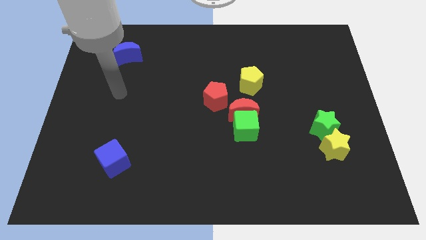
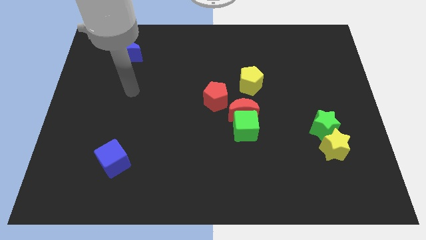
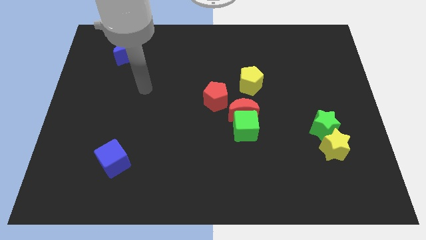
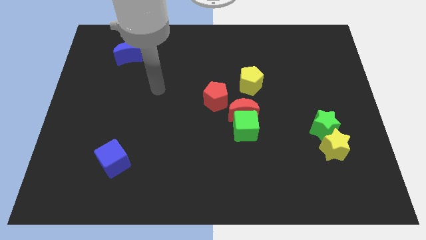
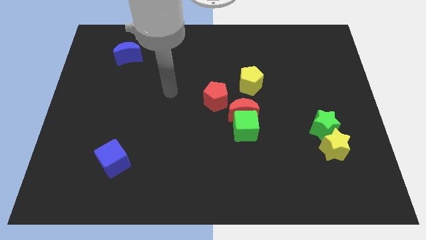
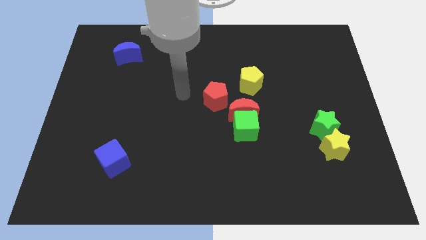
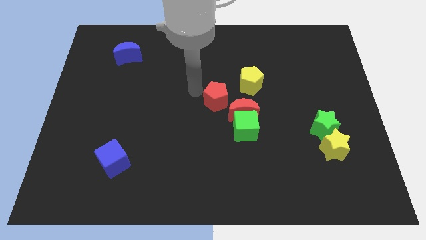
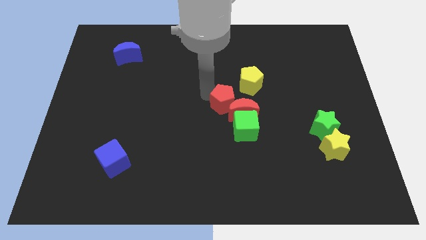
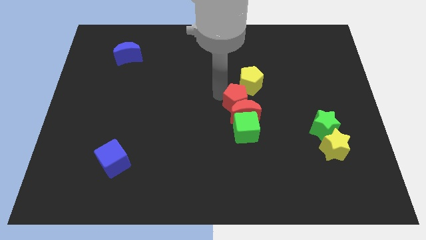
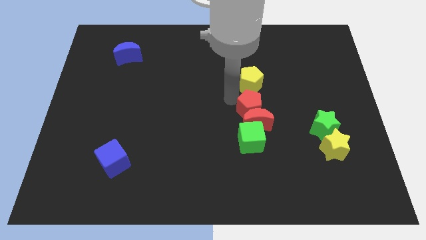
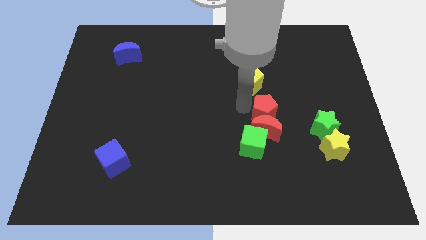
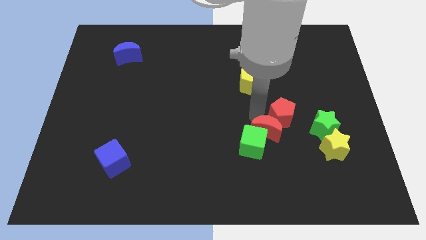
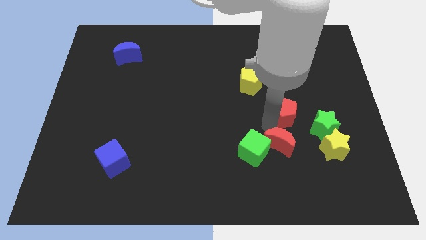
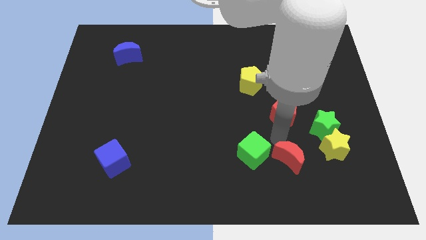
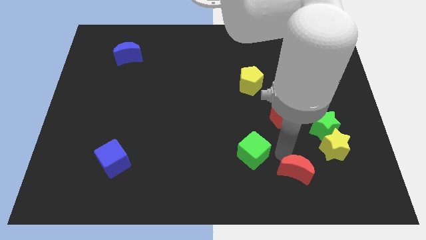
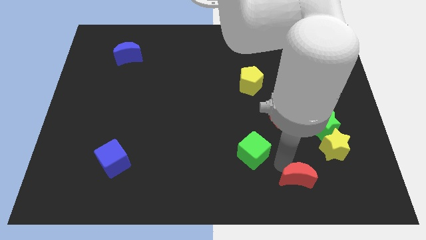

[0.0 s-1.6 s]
separate the green cube from the red moon

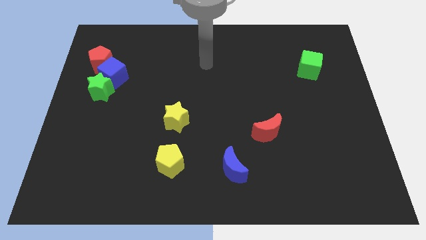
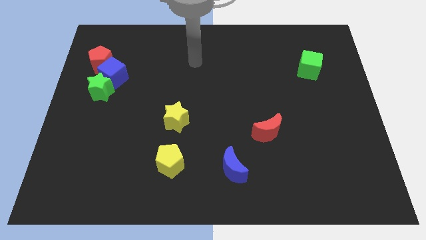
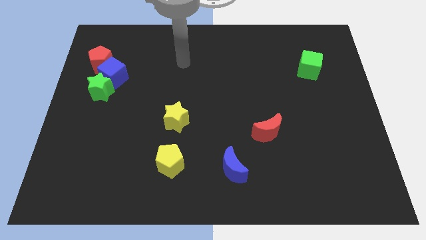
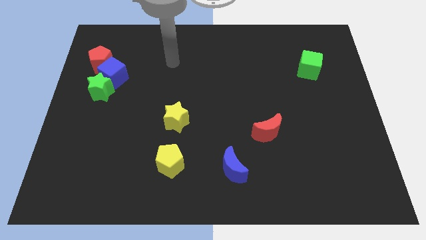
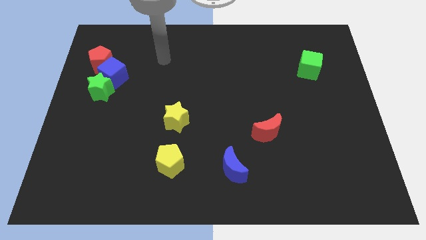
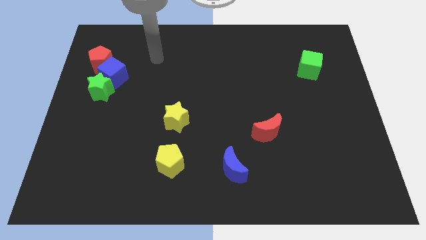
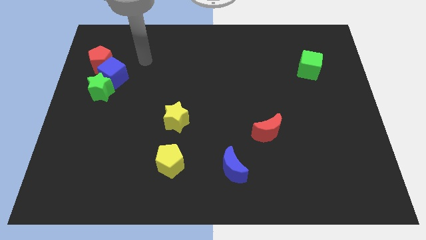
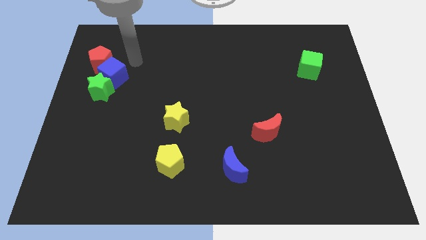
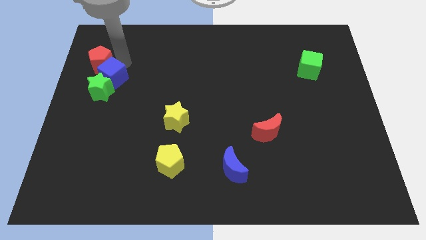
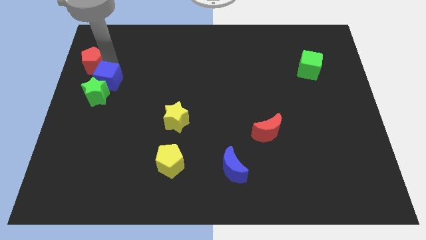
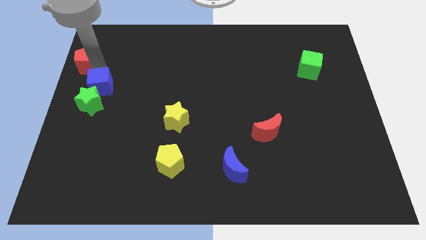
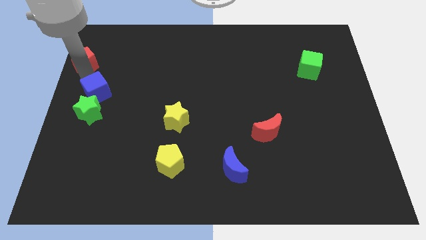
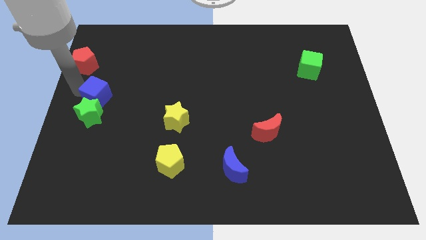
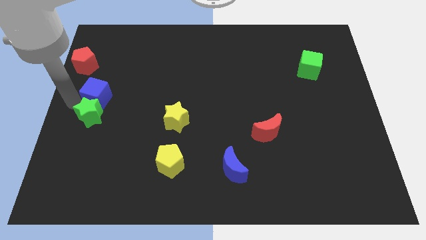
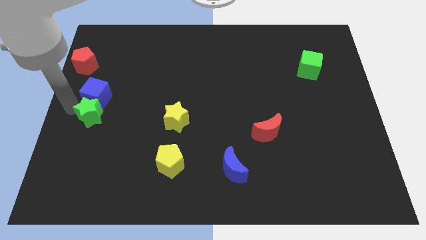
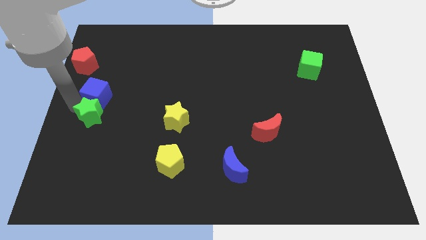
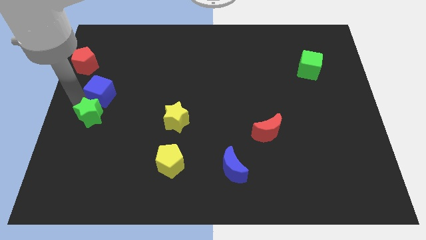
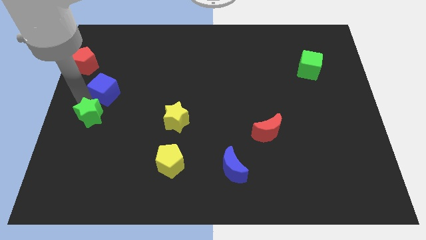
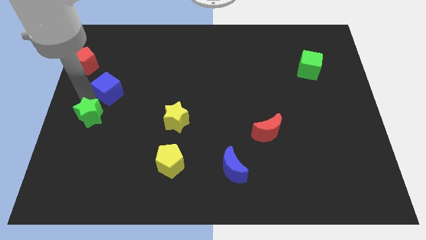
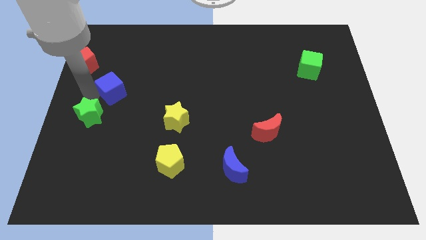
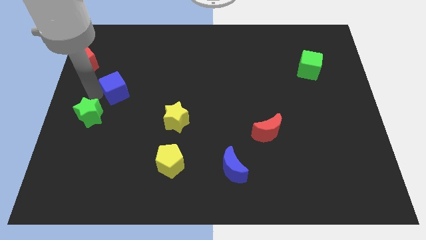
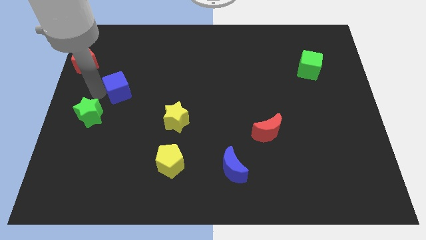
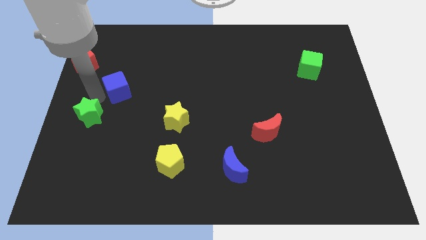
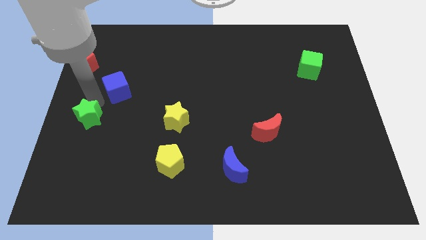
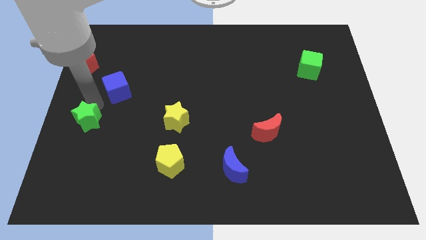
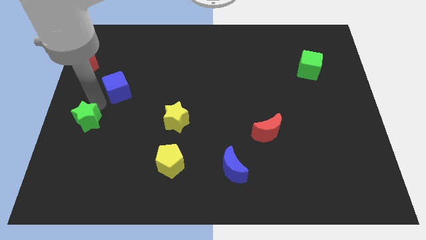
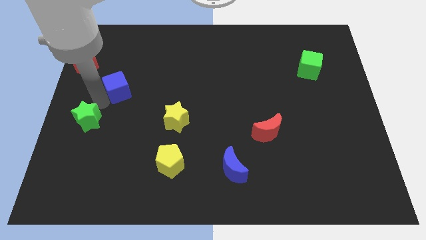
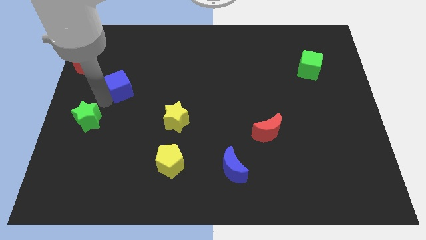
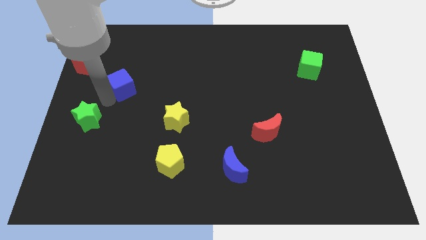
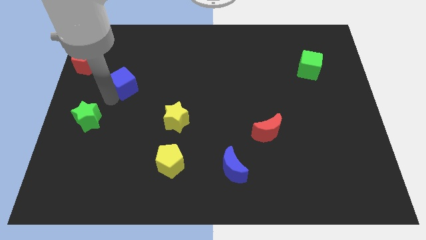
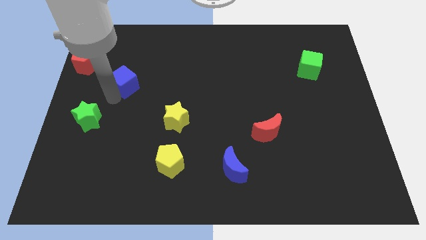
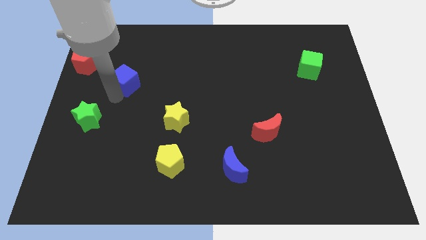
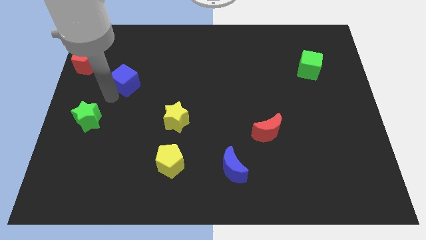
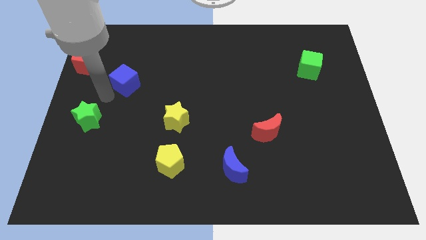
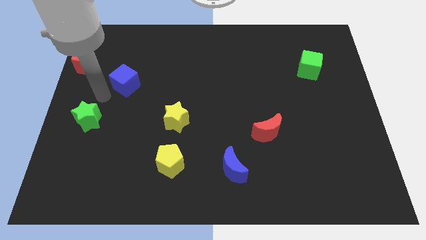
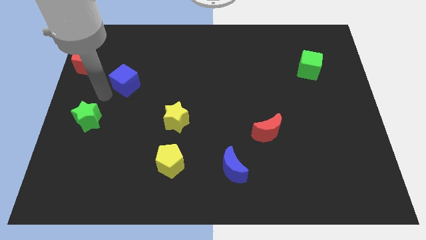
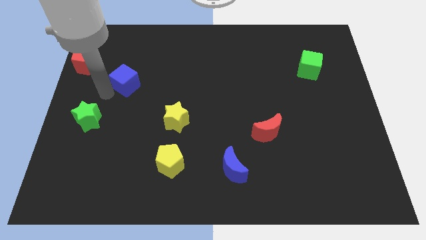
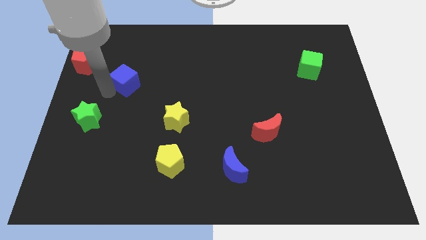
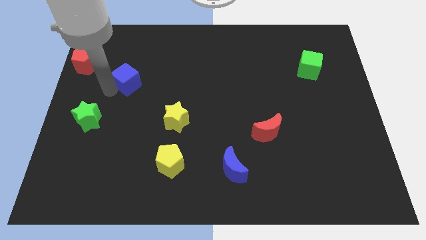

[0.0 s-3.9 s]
move the blue cube away from the green star and red pentagon

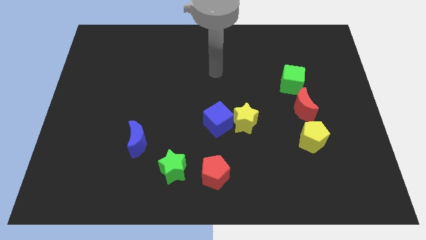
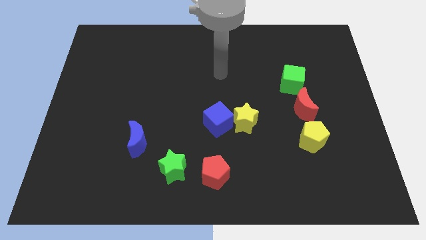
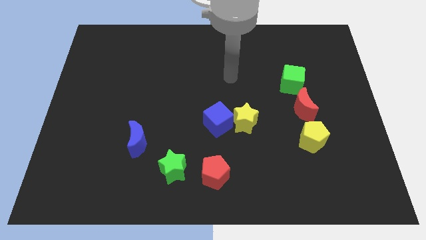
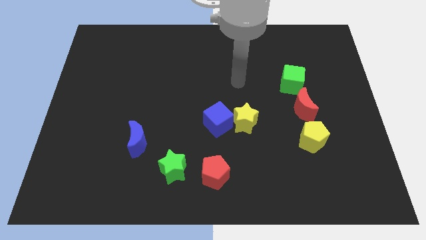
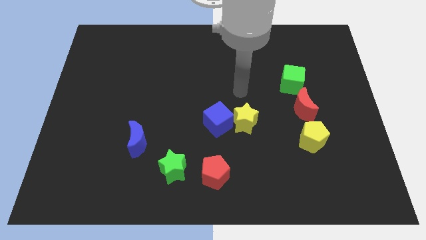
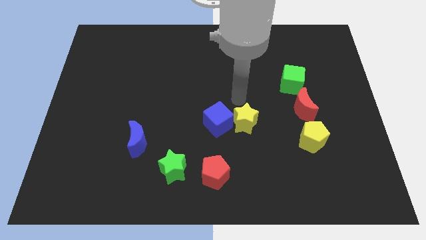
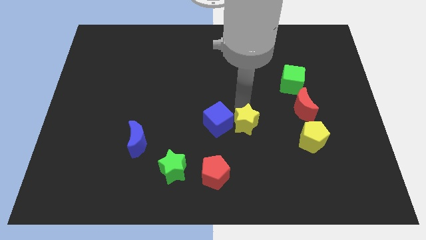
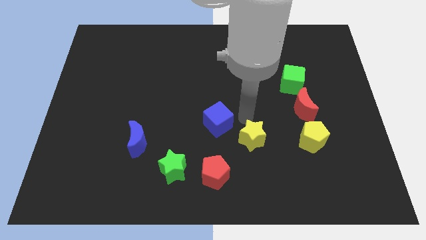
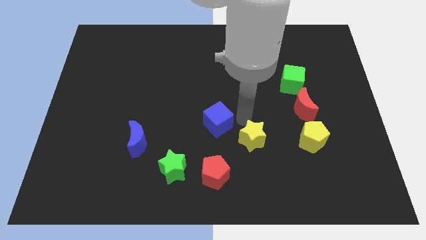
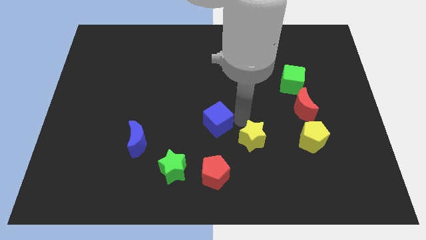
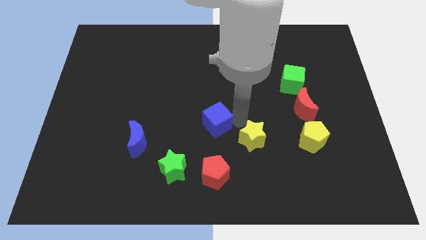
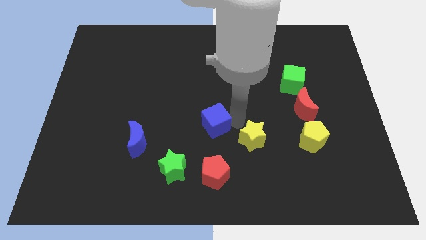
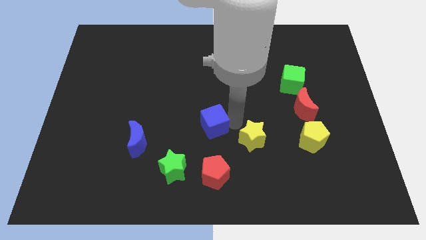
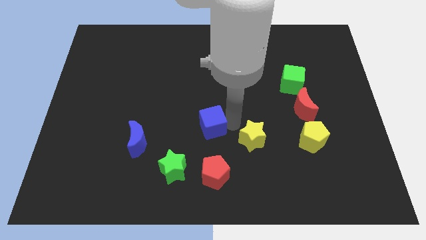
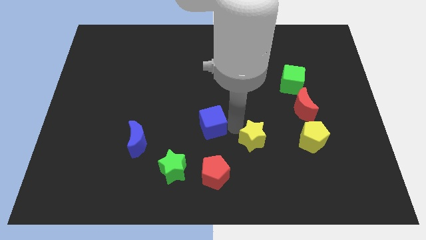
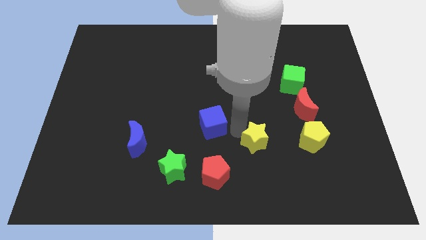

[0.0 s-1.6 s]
move the blue cube away from the yellow star

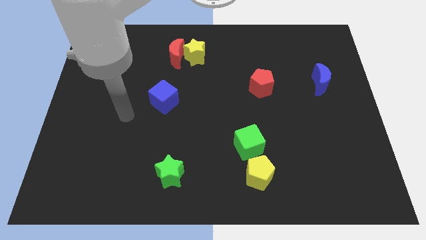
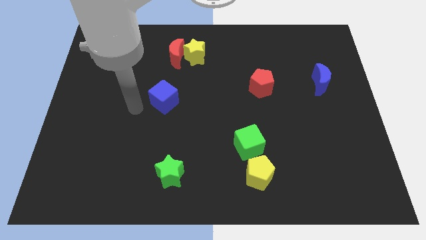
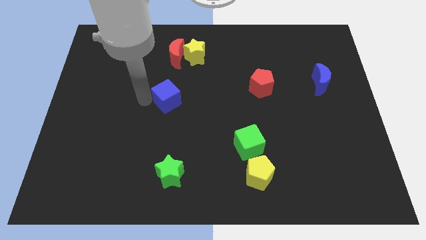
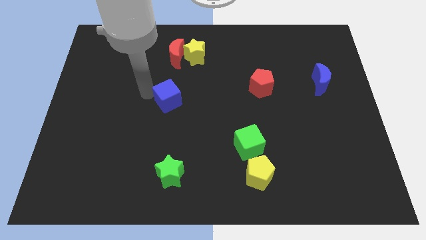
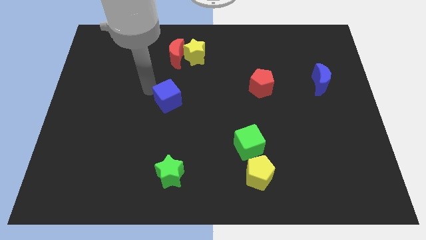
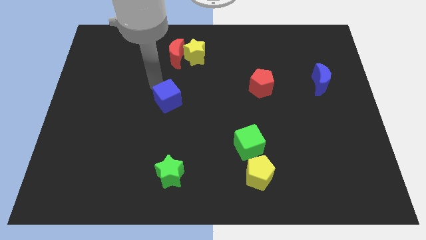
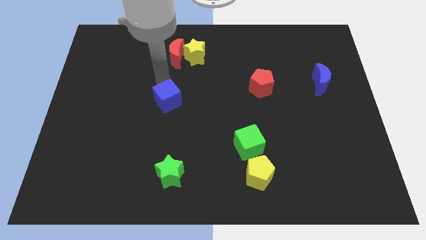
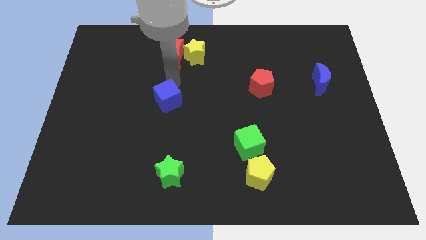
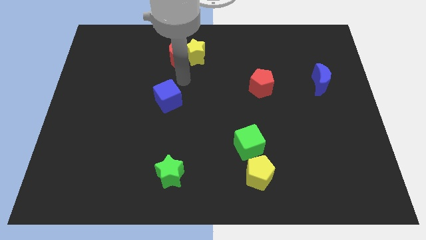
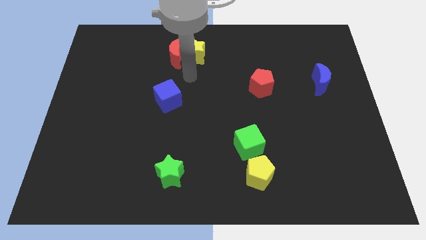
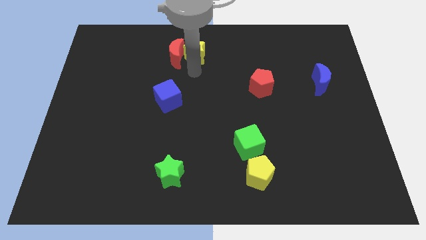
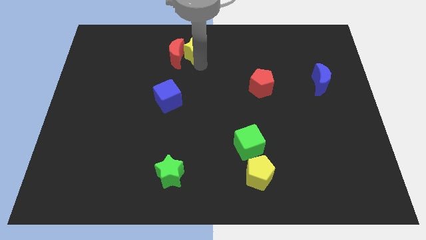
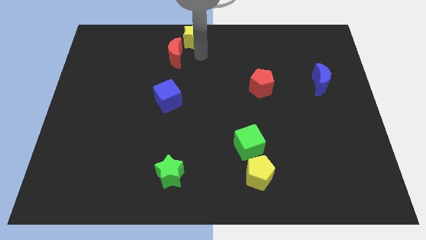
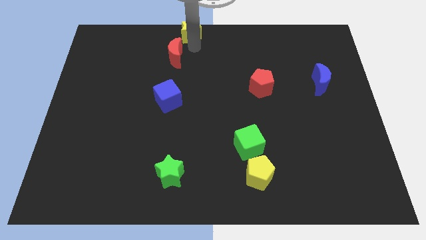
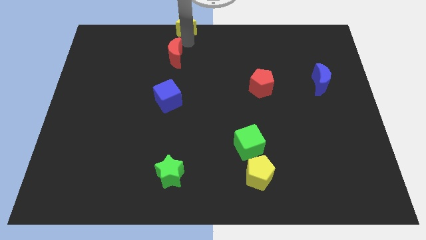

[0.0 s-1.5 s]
move the red moon away from the yellow star

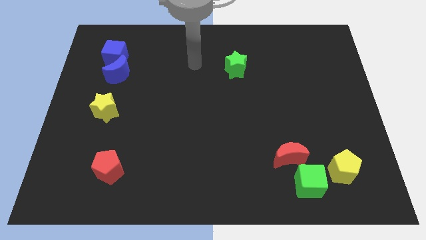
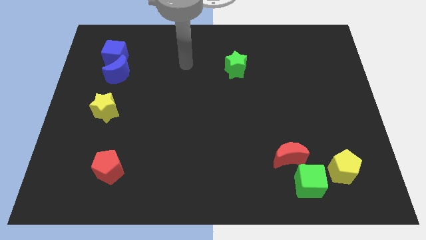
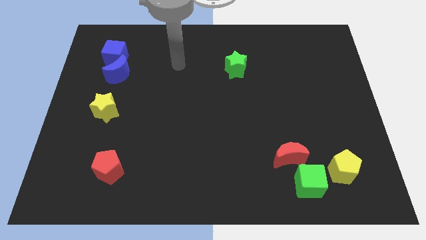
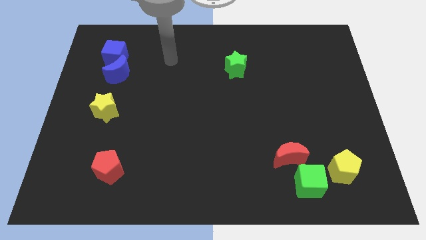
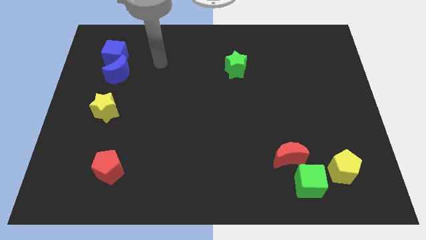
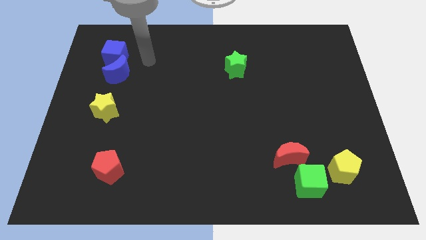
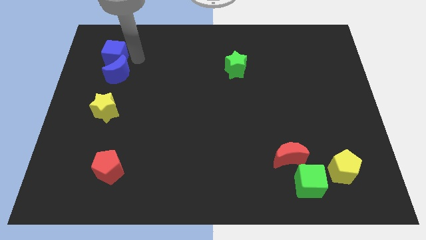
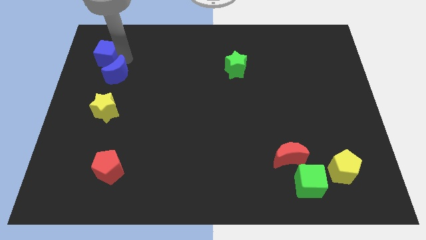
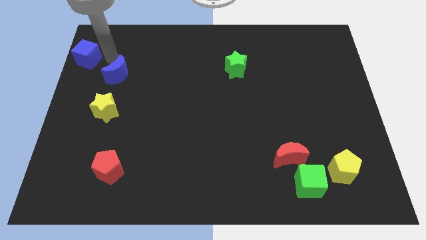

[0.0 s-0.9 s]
separate the blue moon from the blue cube
